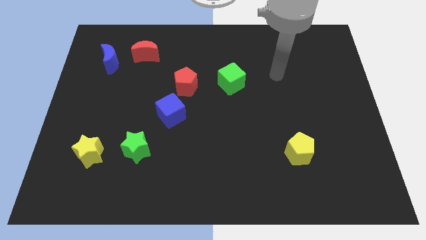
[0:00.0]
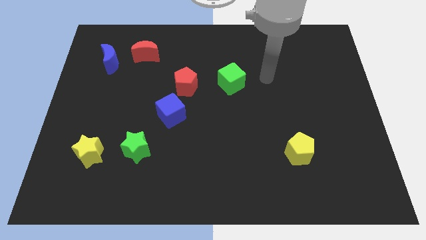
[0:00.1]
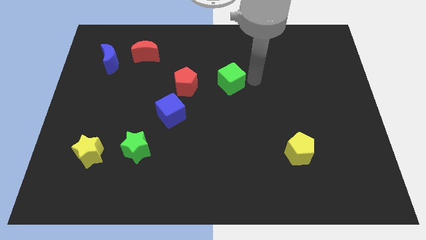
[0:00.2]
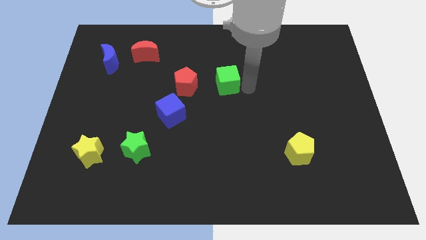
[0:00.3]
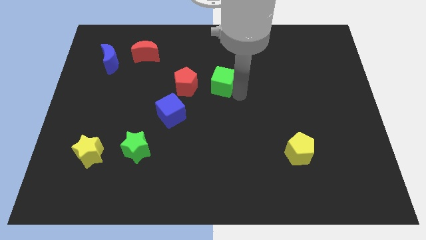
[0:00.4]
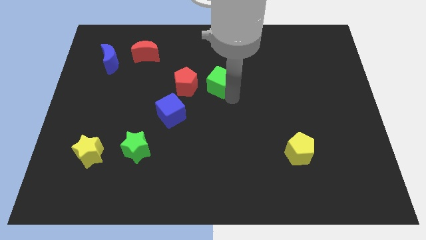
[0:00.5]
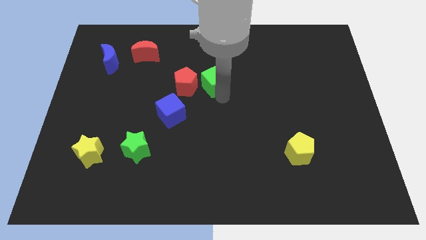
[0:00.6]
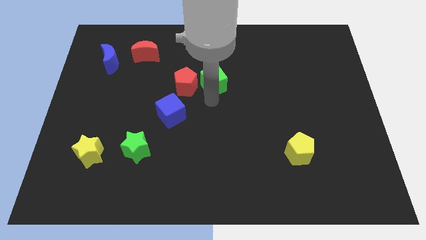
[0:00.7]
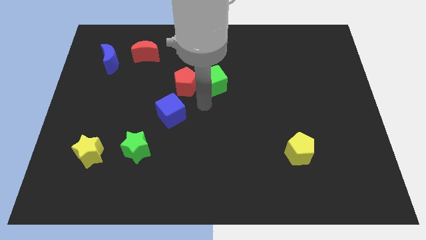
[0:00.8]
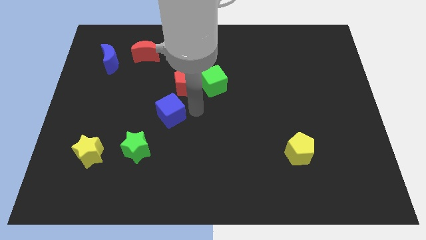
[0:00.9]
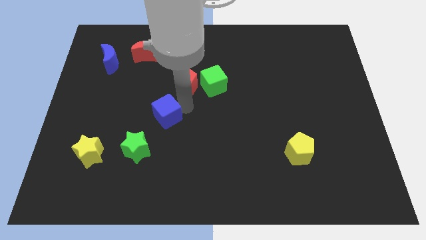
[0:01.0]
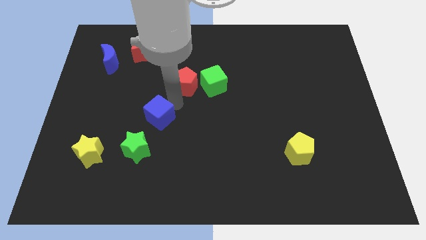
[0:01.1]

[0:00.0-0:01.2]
move the red pentagon away from the blue cube

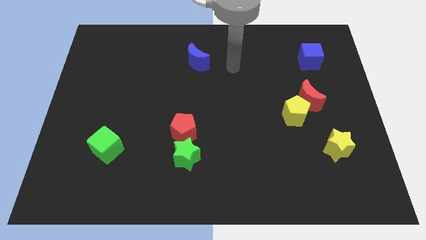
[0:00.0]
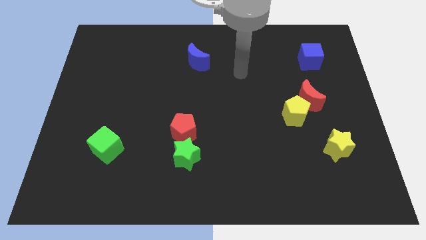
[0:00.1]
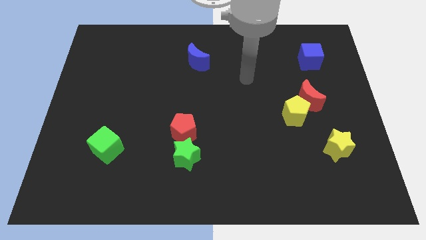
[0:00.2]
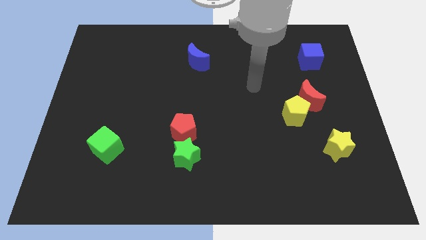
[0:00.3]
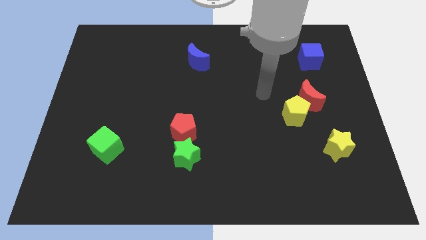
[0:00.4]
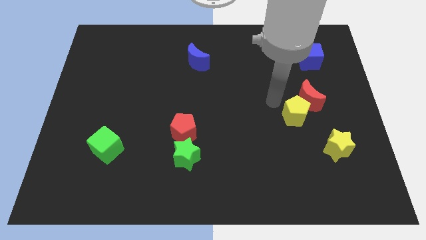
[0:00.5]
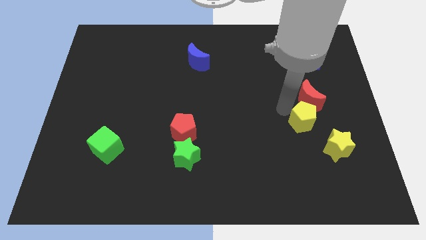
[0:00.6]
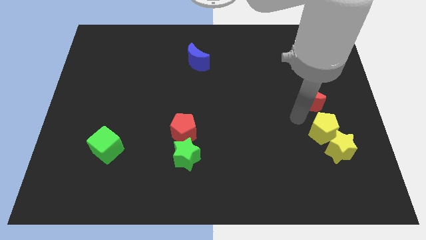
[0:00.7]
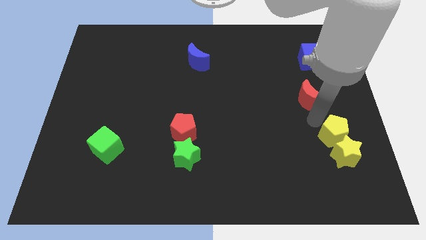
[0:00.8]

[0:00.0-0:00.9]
separate the red moon from the yellow pentagon

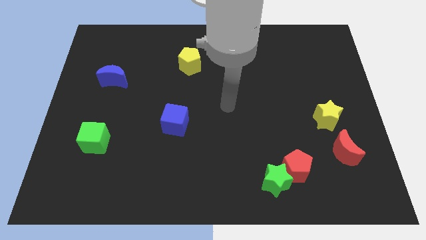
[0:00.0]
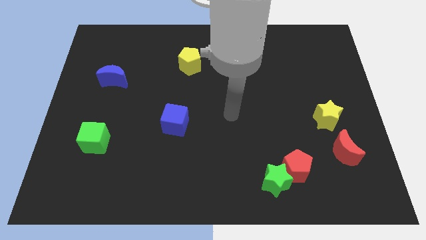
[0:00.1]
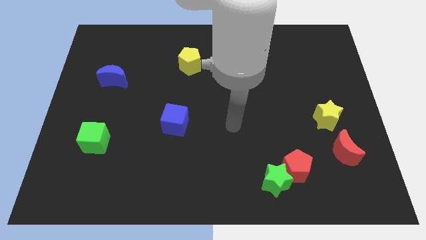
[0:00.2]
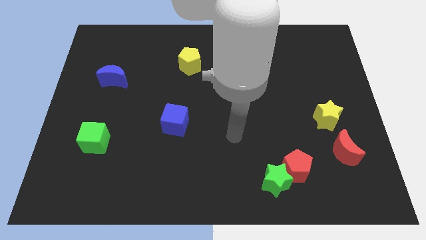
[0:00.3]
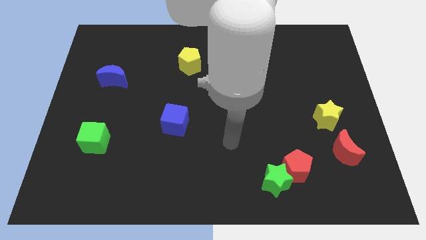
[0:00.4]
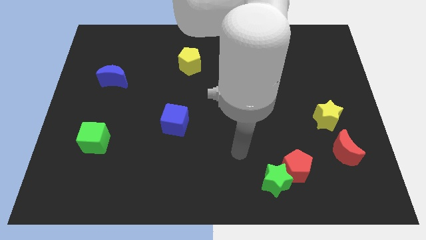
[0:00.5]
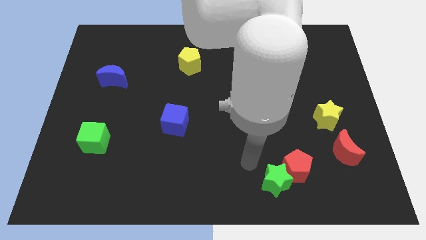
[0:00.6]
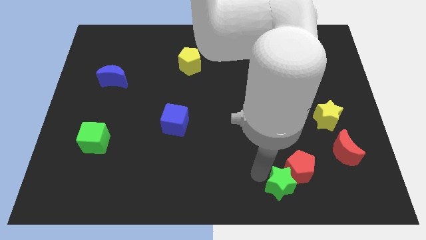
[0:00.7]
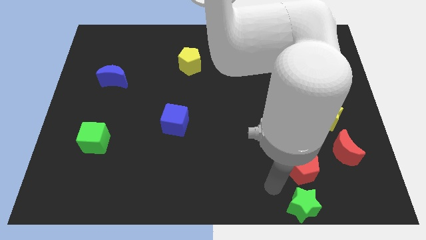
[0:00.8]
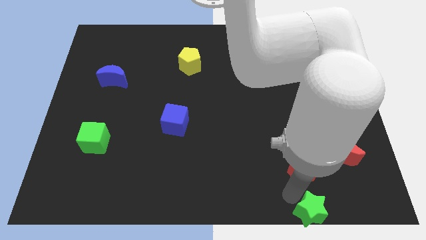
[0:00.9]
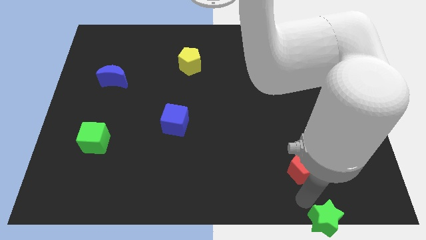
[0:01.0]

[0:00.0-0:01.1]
move the red pentagon away from the green star

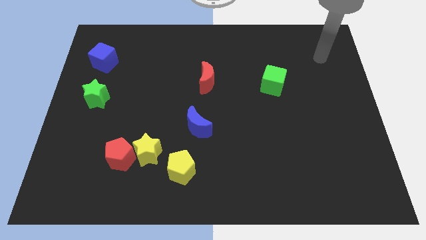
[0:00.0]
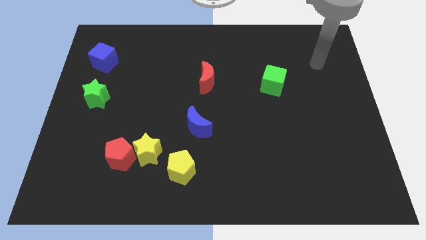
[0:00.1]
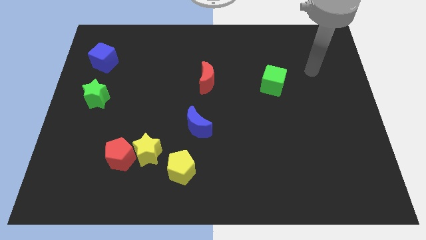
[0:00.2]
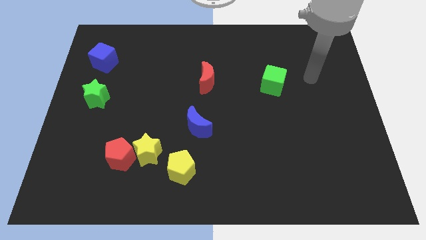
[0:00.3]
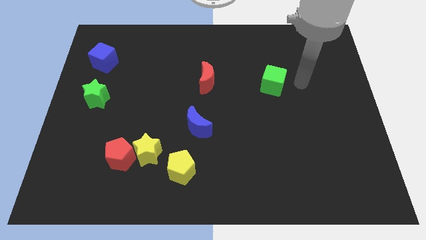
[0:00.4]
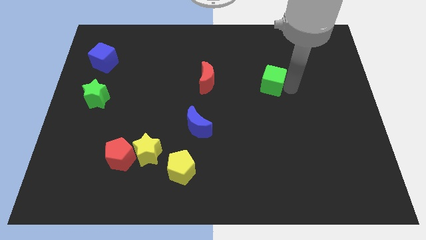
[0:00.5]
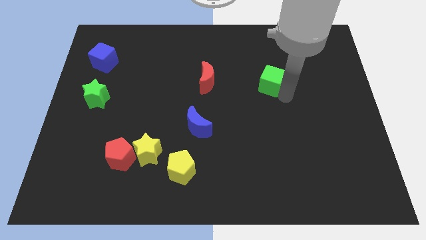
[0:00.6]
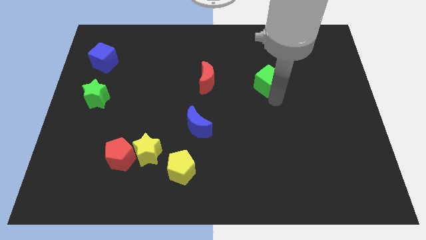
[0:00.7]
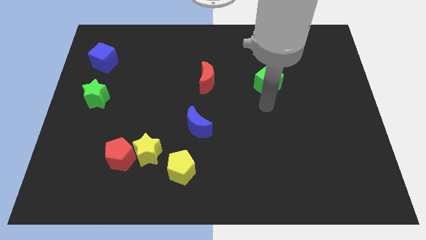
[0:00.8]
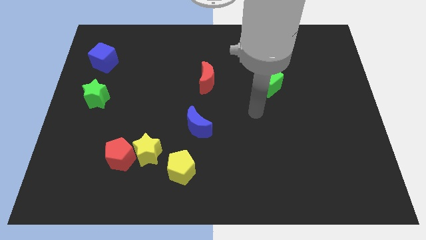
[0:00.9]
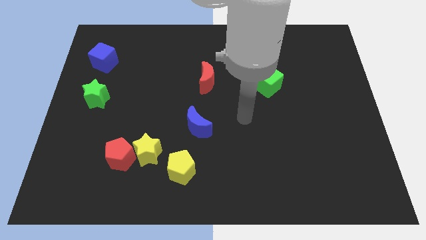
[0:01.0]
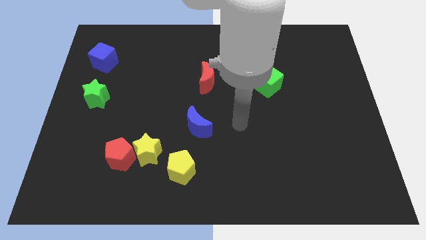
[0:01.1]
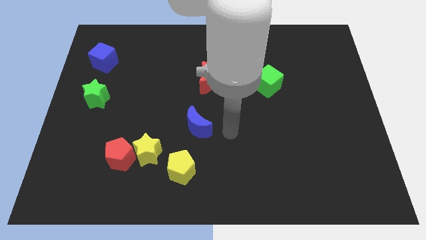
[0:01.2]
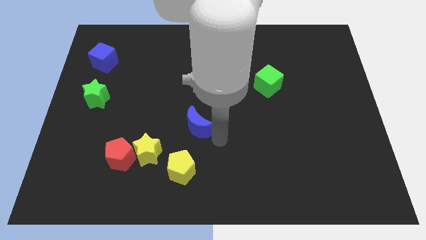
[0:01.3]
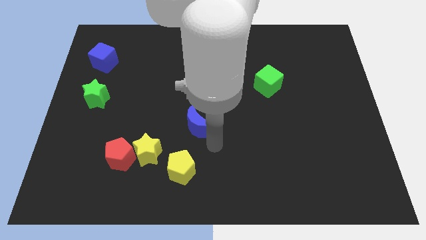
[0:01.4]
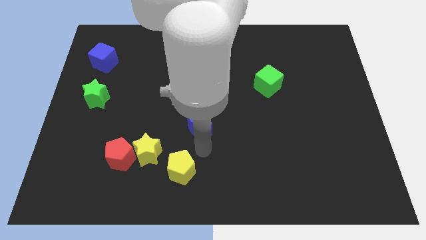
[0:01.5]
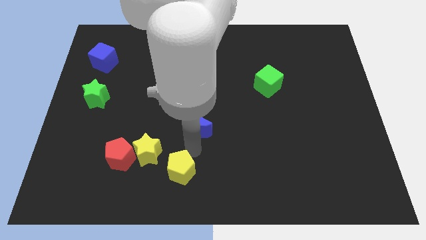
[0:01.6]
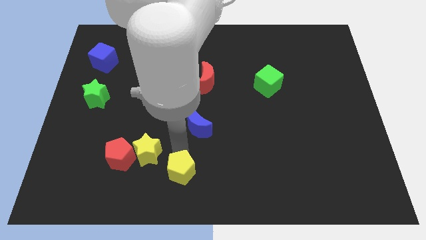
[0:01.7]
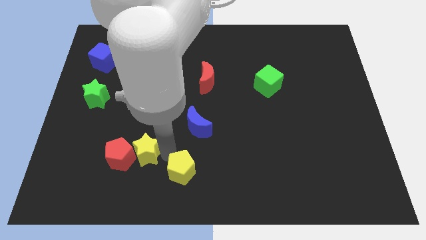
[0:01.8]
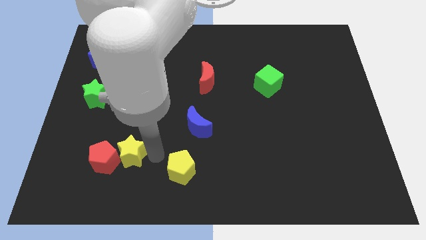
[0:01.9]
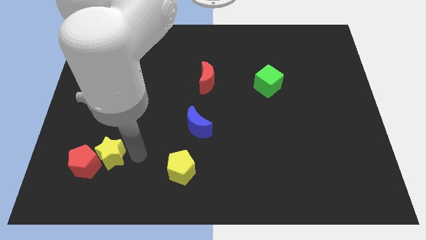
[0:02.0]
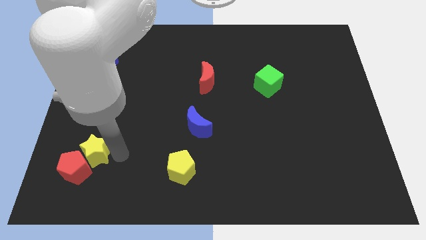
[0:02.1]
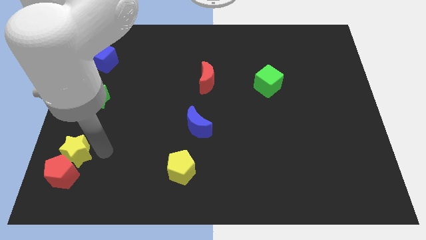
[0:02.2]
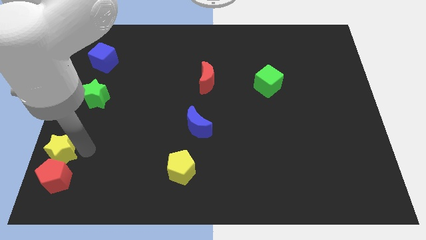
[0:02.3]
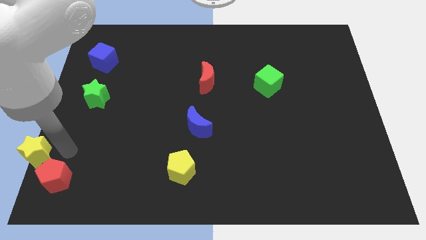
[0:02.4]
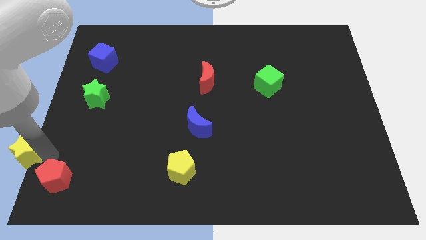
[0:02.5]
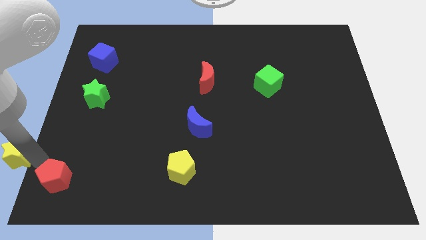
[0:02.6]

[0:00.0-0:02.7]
pull the red pentagon apart from the yellow star

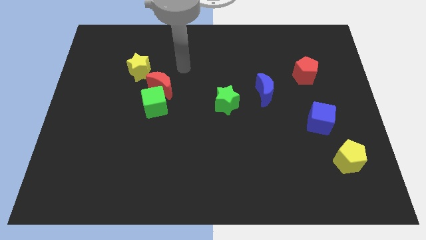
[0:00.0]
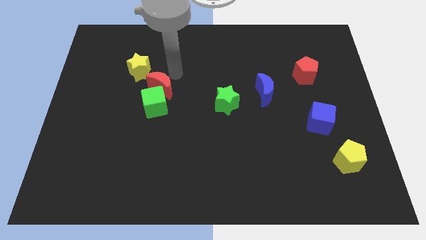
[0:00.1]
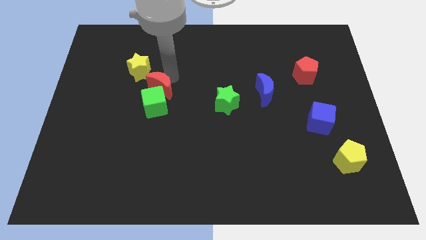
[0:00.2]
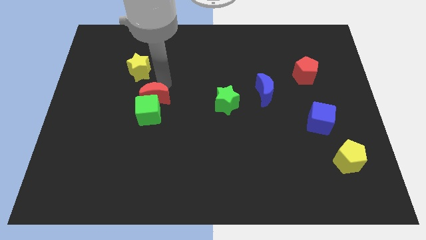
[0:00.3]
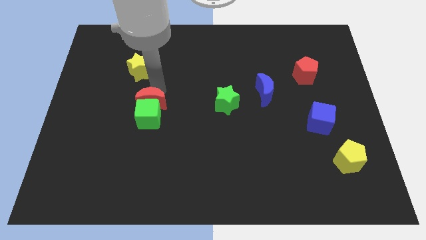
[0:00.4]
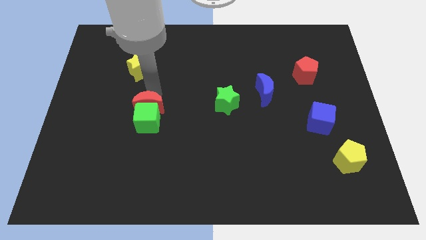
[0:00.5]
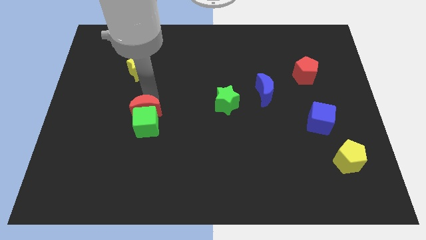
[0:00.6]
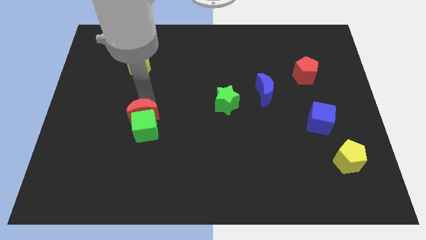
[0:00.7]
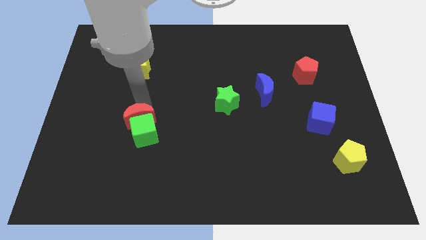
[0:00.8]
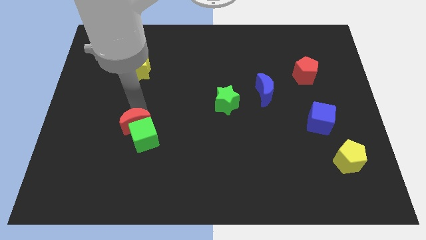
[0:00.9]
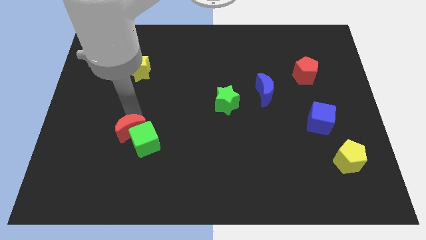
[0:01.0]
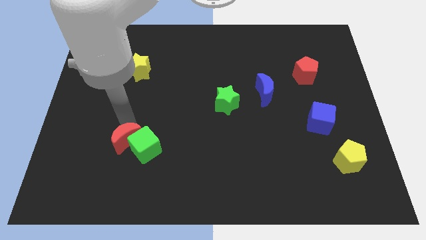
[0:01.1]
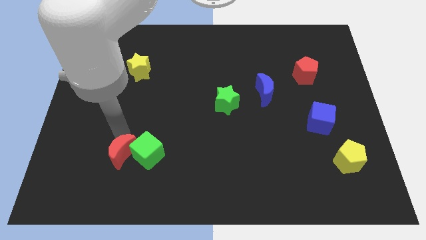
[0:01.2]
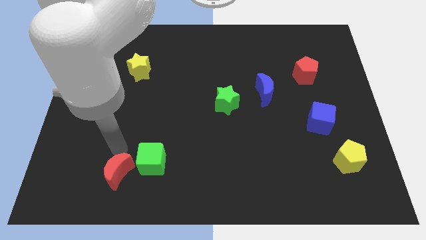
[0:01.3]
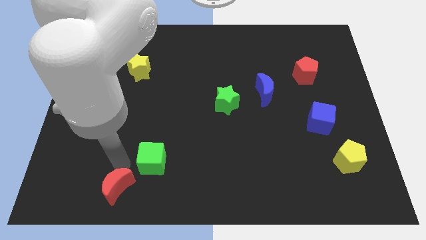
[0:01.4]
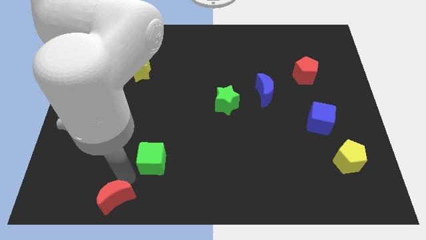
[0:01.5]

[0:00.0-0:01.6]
pull the green cube apart from the red moon

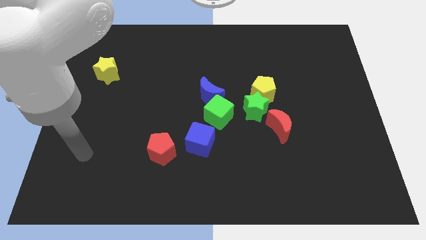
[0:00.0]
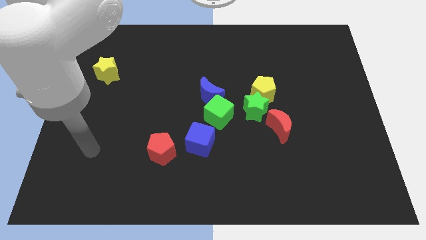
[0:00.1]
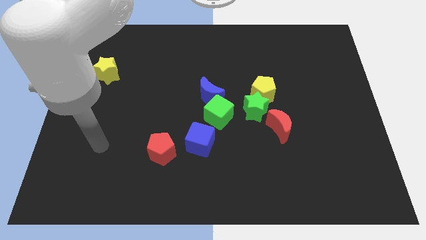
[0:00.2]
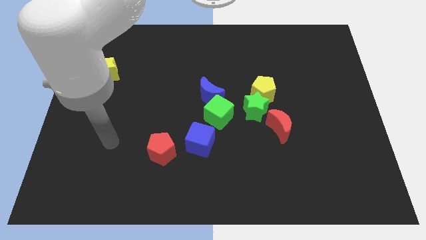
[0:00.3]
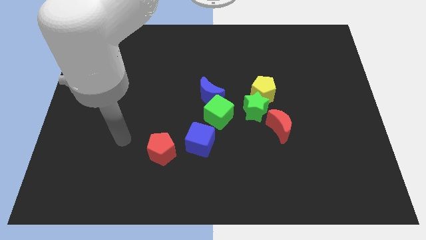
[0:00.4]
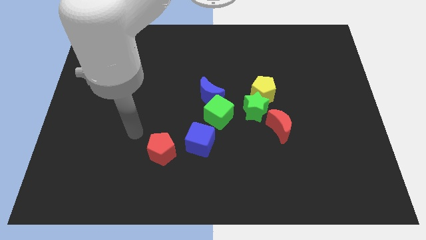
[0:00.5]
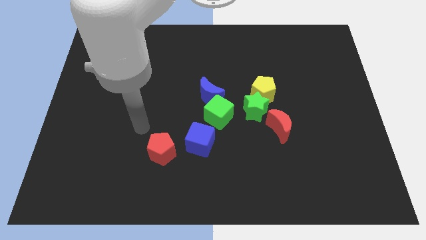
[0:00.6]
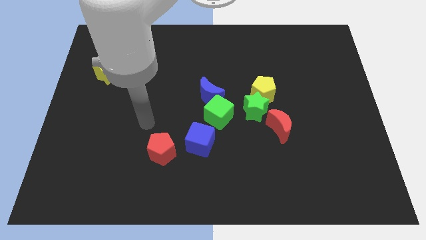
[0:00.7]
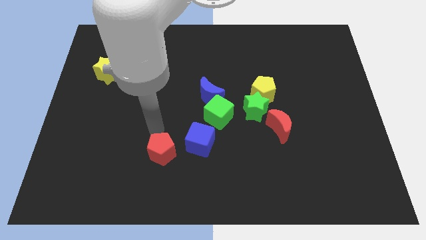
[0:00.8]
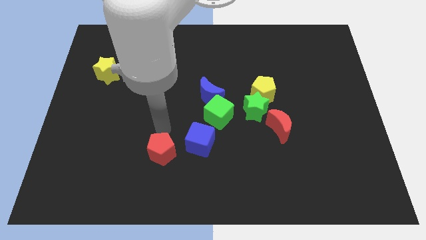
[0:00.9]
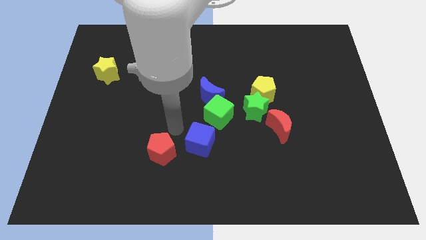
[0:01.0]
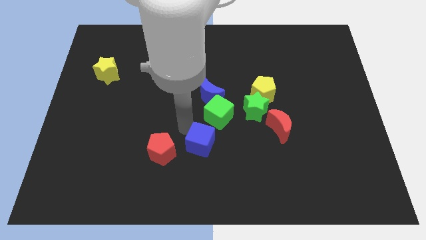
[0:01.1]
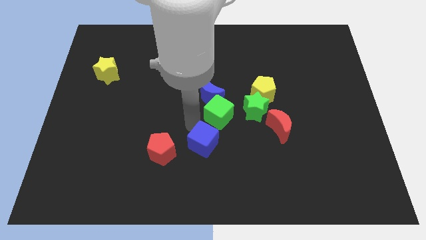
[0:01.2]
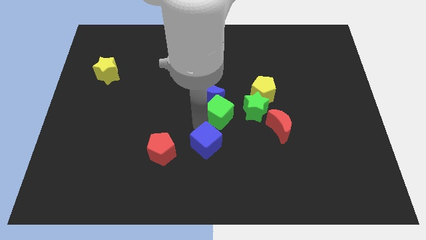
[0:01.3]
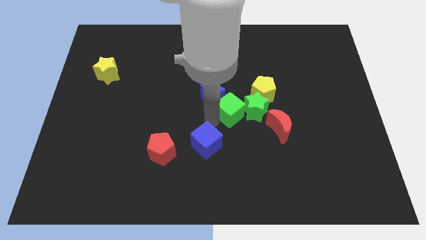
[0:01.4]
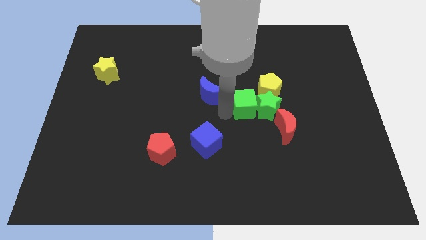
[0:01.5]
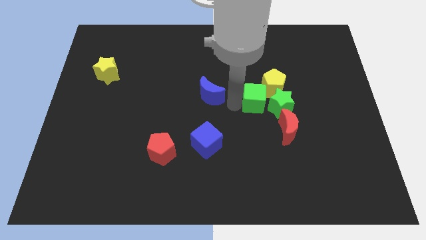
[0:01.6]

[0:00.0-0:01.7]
separate the blue moon from the green cube
